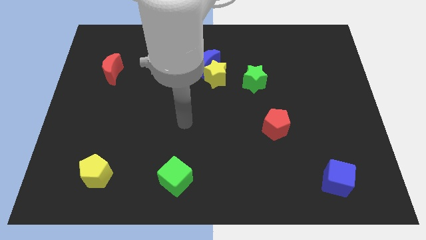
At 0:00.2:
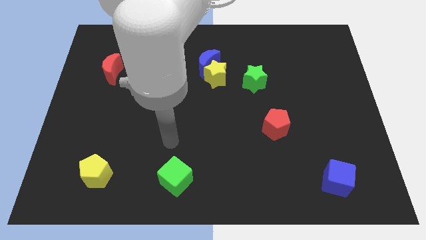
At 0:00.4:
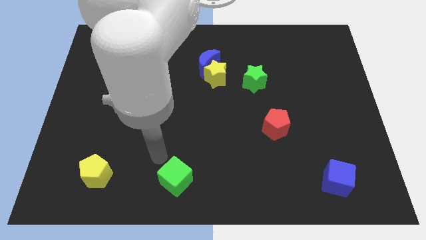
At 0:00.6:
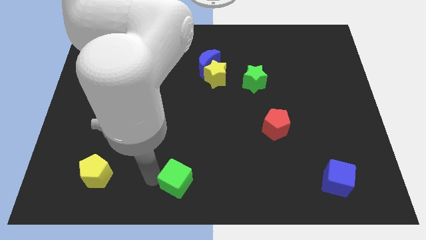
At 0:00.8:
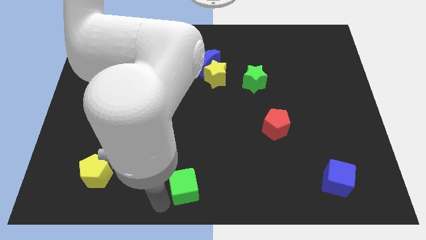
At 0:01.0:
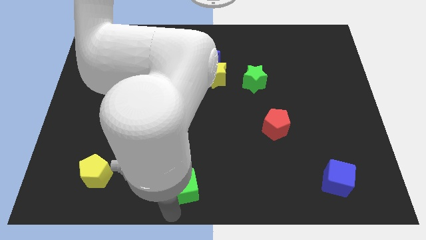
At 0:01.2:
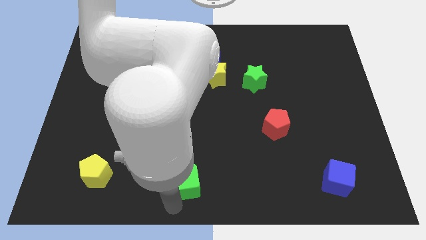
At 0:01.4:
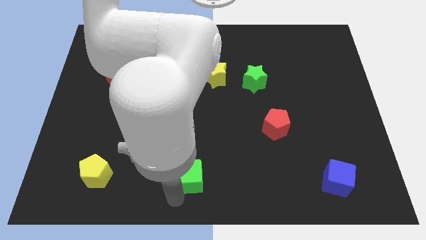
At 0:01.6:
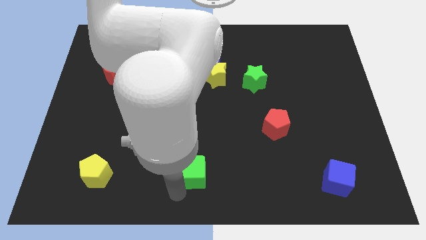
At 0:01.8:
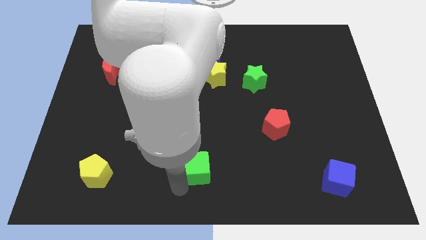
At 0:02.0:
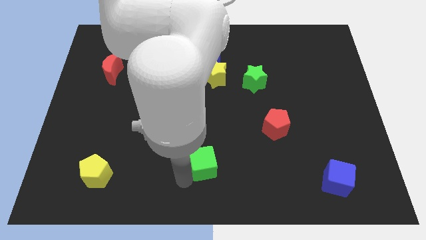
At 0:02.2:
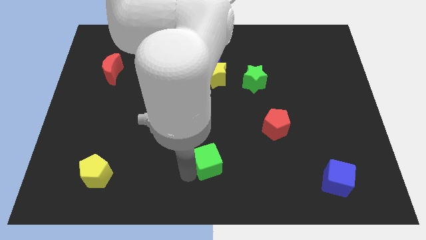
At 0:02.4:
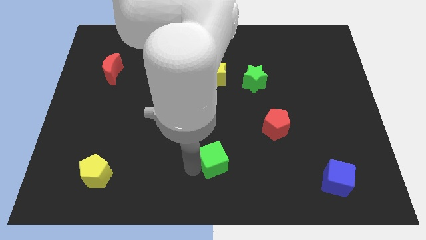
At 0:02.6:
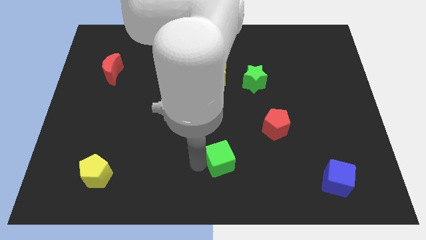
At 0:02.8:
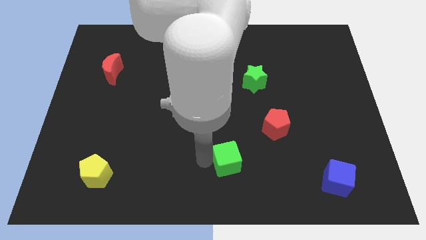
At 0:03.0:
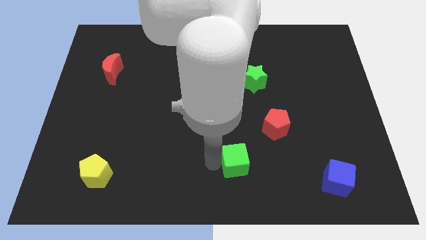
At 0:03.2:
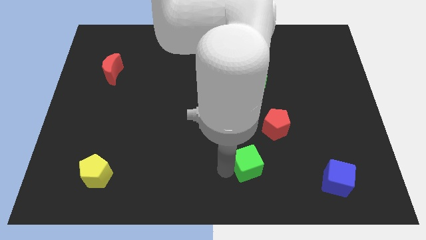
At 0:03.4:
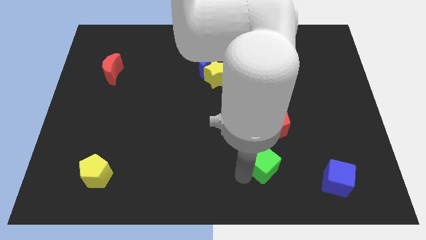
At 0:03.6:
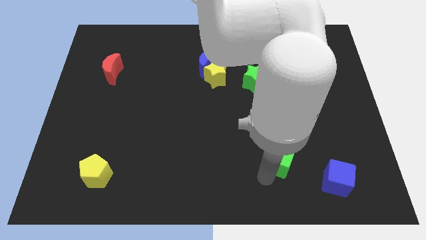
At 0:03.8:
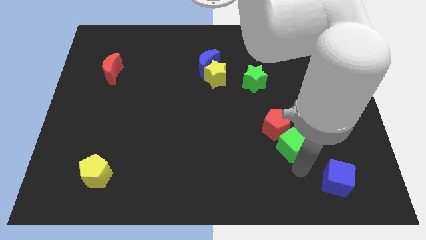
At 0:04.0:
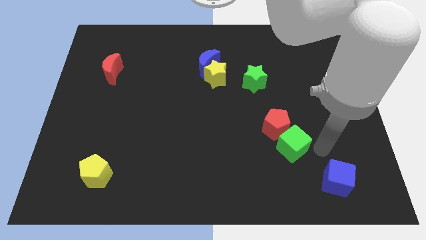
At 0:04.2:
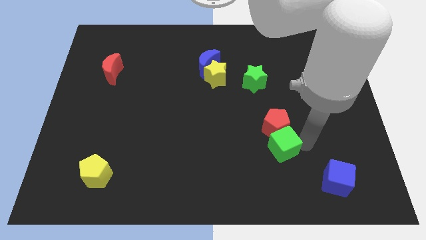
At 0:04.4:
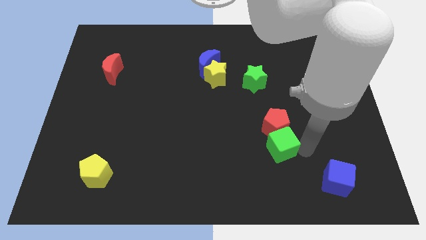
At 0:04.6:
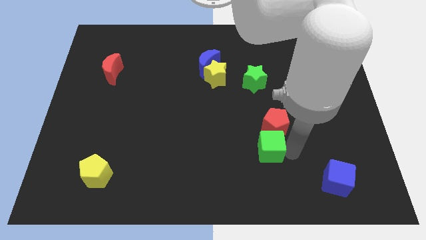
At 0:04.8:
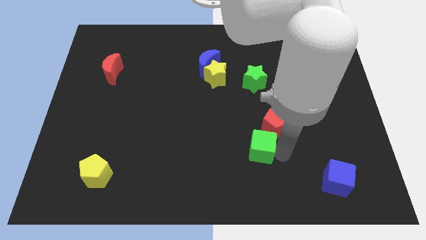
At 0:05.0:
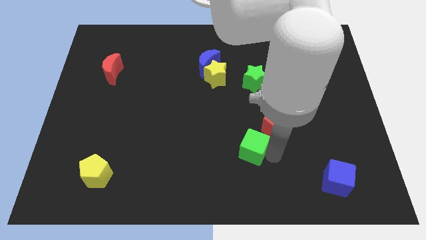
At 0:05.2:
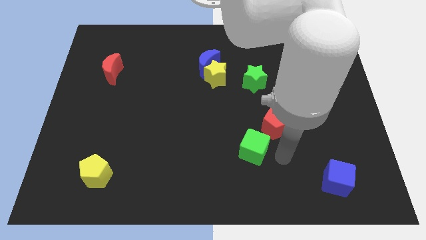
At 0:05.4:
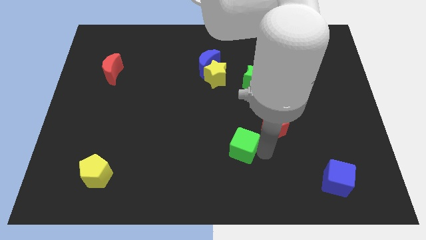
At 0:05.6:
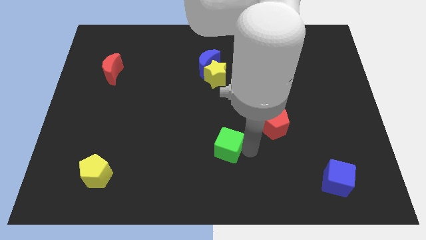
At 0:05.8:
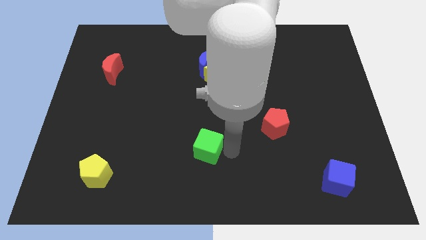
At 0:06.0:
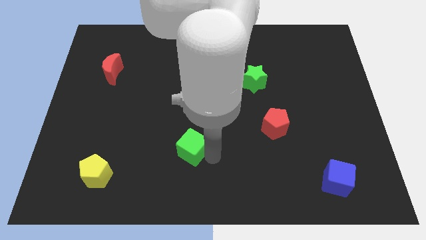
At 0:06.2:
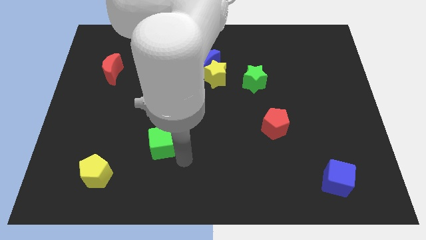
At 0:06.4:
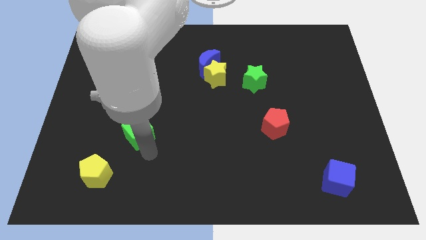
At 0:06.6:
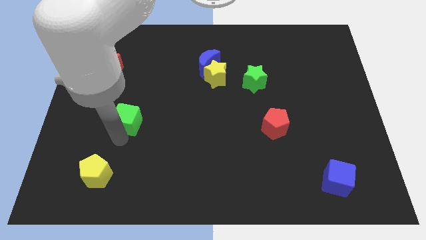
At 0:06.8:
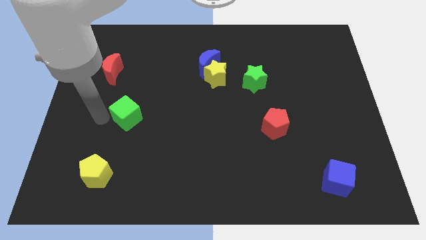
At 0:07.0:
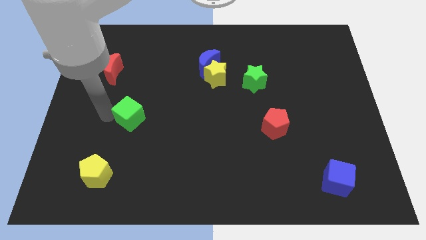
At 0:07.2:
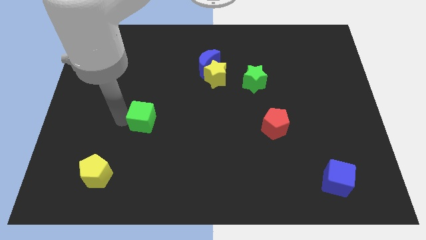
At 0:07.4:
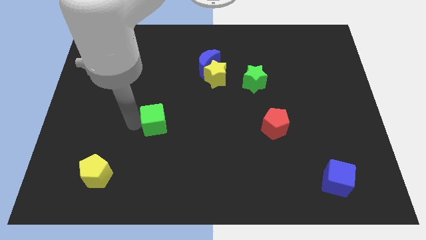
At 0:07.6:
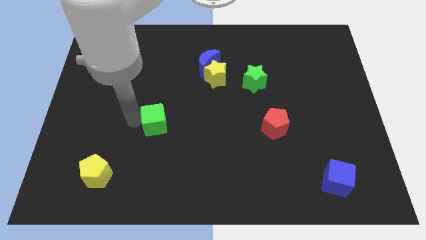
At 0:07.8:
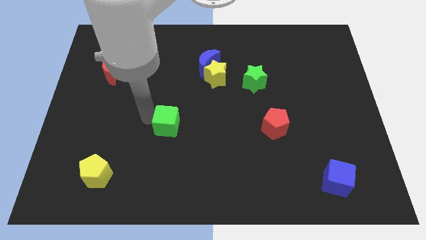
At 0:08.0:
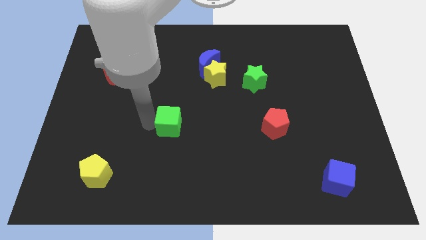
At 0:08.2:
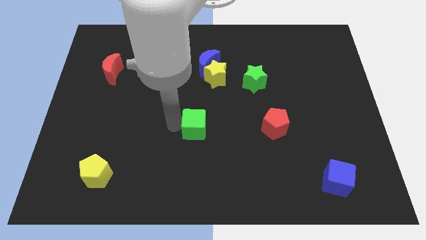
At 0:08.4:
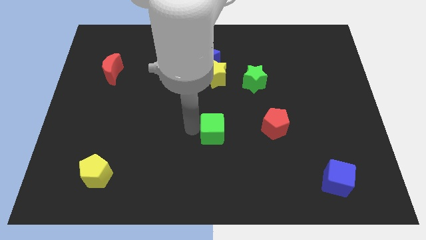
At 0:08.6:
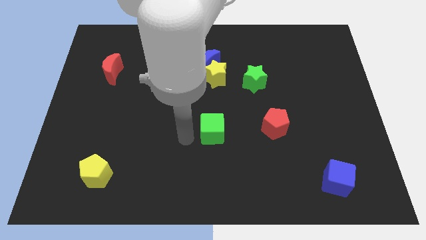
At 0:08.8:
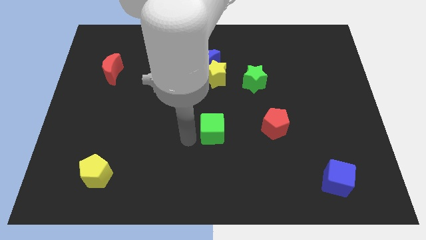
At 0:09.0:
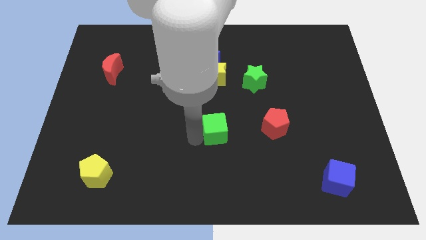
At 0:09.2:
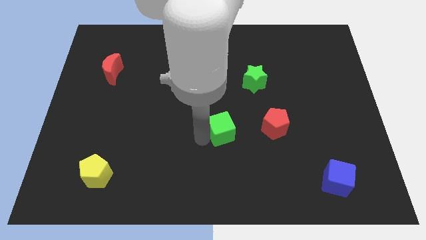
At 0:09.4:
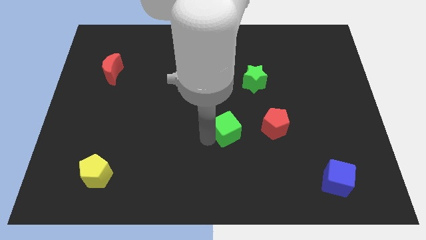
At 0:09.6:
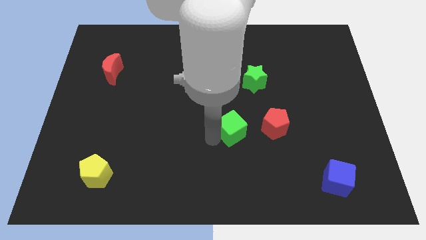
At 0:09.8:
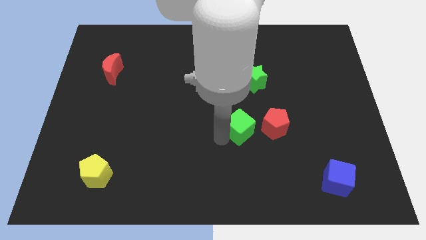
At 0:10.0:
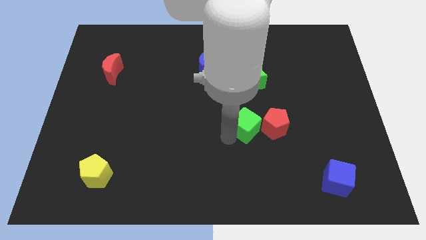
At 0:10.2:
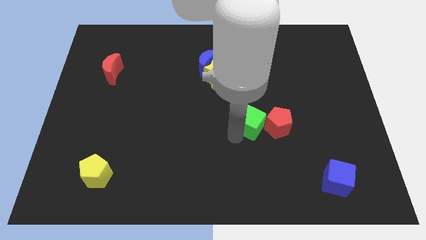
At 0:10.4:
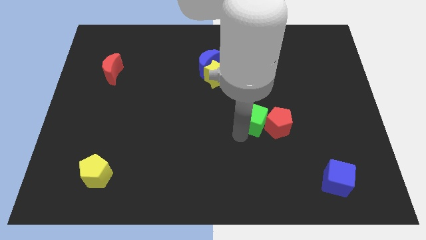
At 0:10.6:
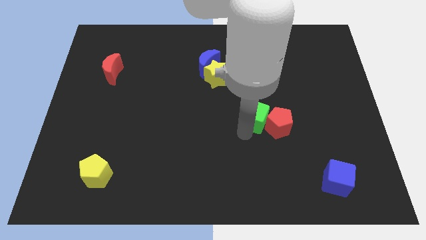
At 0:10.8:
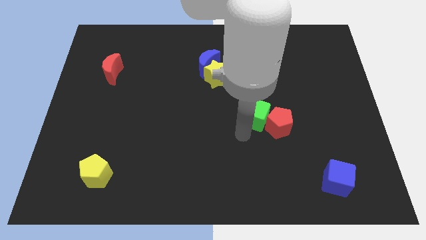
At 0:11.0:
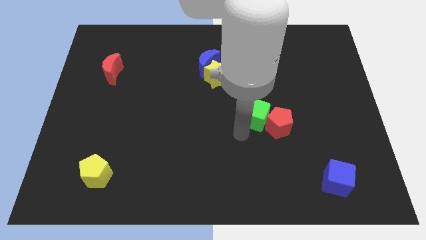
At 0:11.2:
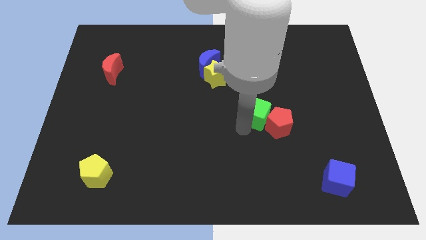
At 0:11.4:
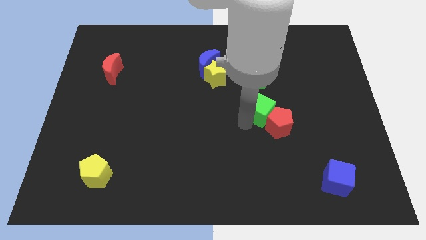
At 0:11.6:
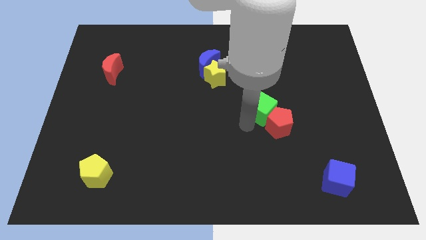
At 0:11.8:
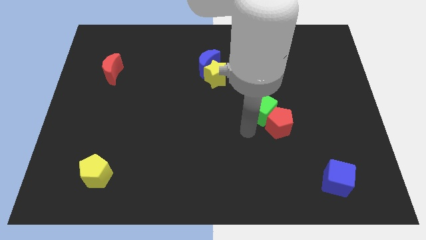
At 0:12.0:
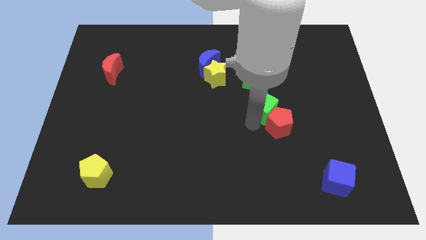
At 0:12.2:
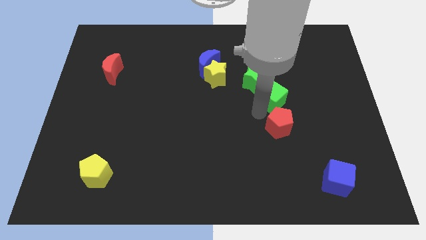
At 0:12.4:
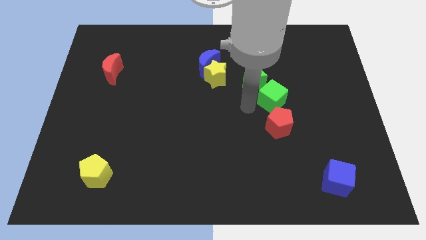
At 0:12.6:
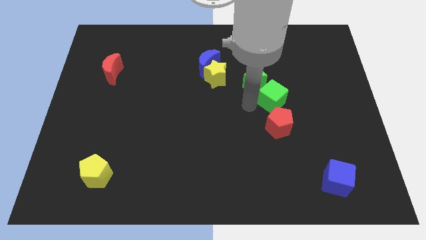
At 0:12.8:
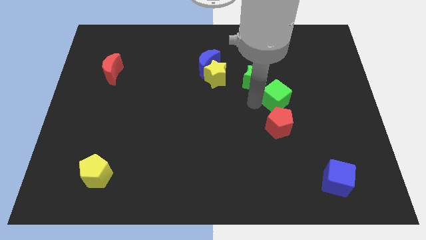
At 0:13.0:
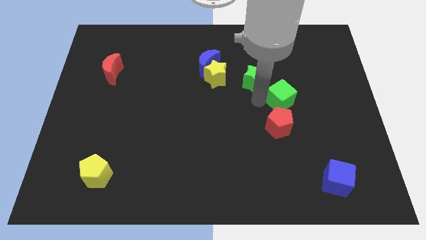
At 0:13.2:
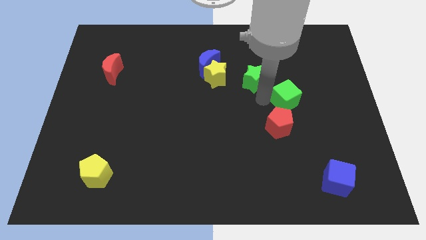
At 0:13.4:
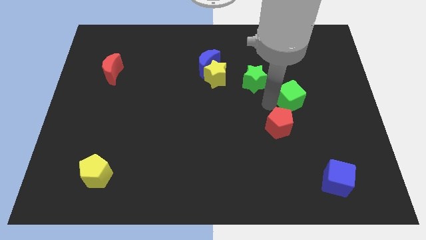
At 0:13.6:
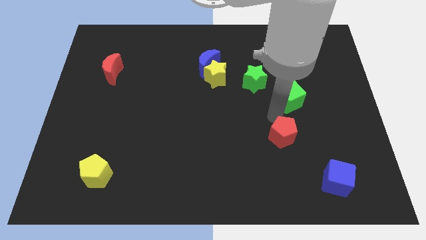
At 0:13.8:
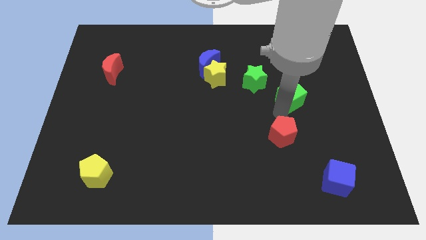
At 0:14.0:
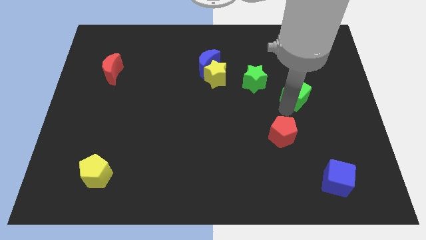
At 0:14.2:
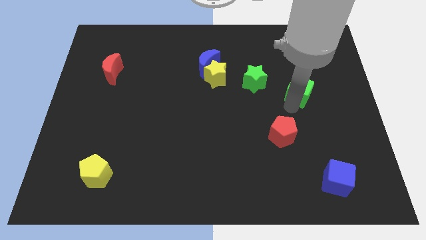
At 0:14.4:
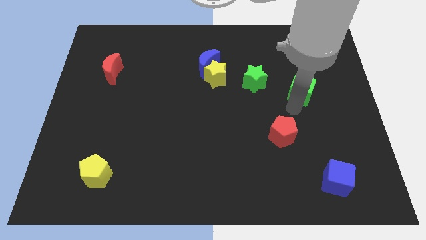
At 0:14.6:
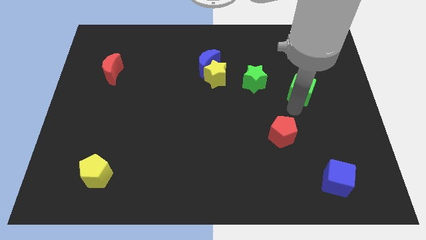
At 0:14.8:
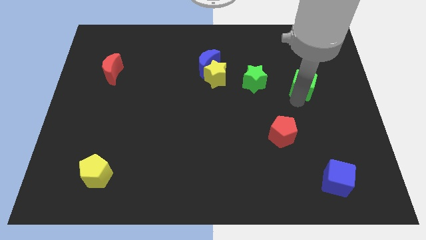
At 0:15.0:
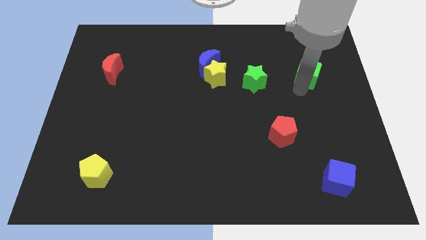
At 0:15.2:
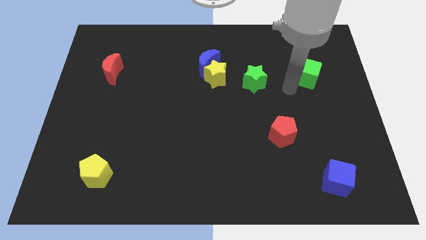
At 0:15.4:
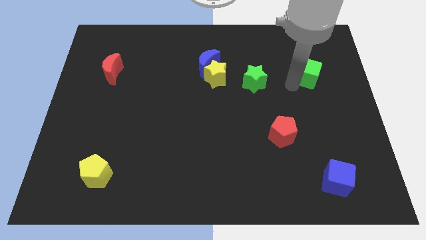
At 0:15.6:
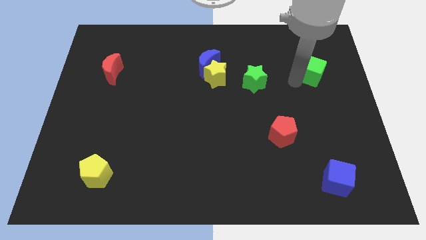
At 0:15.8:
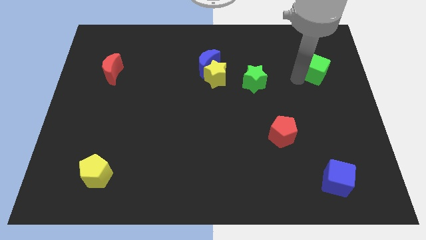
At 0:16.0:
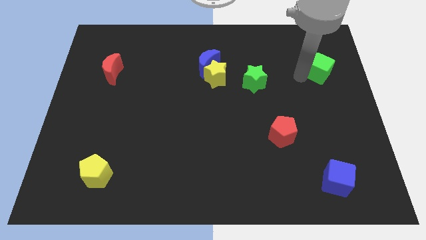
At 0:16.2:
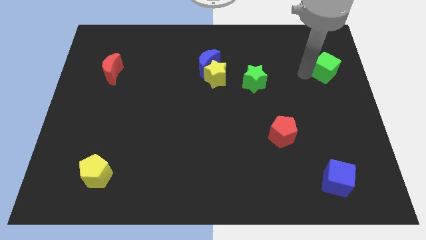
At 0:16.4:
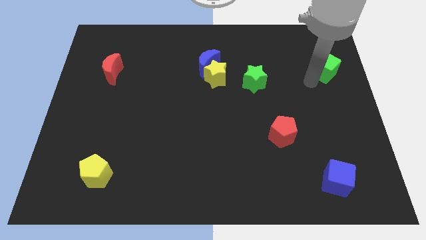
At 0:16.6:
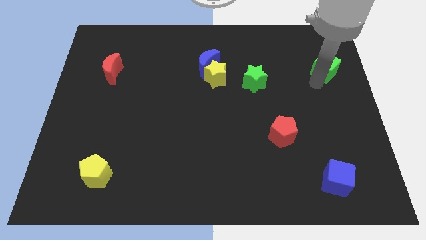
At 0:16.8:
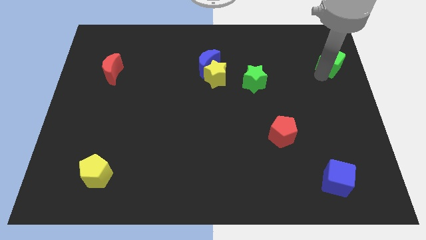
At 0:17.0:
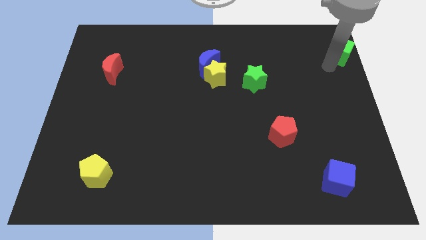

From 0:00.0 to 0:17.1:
slide the green cube to the top right
